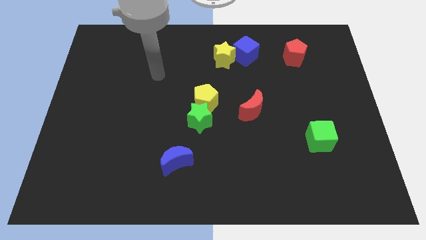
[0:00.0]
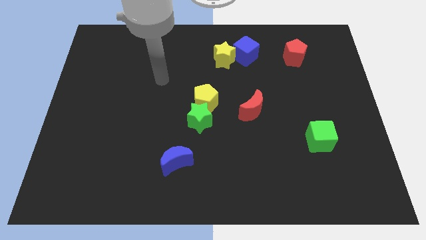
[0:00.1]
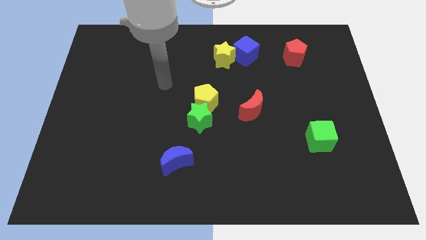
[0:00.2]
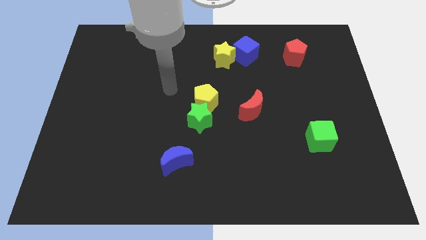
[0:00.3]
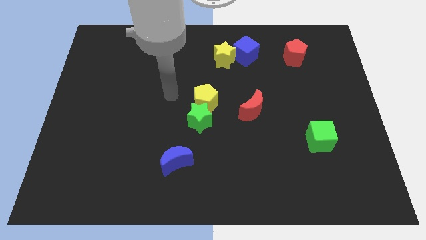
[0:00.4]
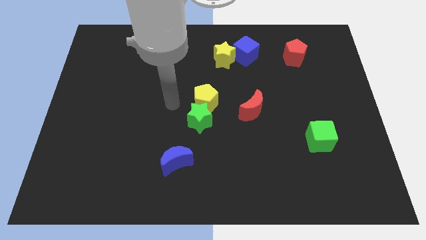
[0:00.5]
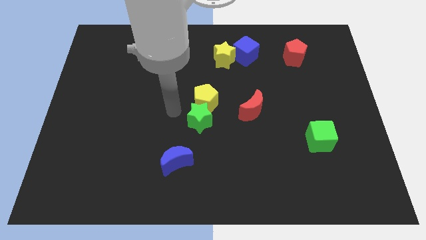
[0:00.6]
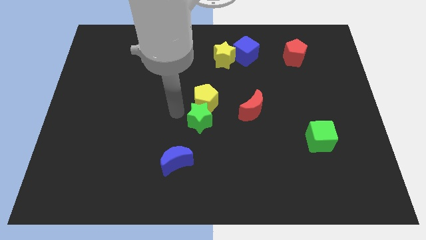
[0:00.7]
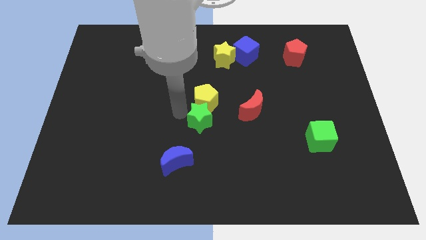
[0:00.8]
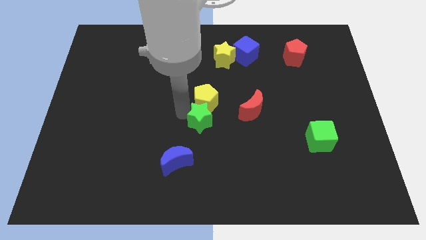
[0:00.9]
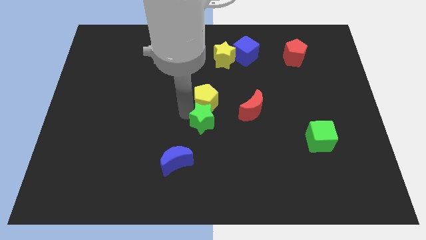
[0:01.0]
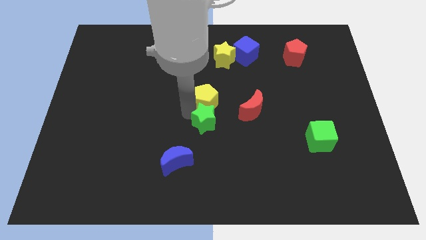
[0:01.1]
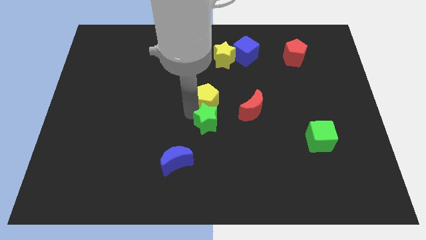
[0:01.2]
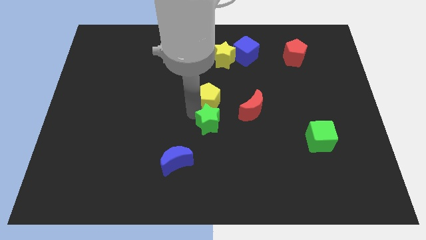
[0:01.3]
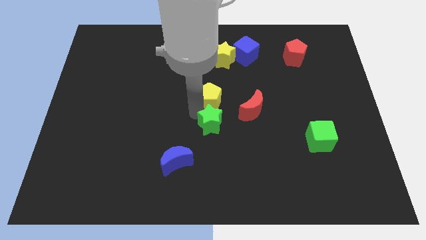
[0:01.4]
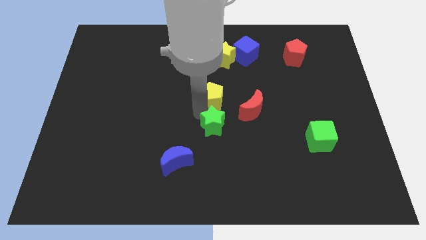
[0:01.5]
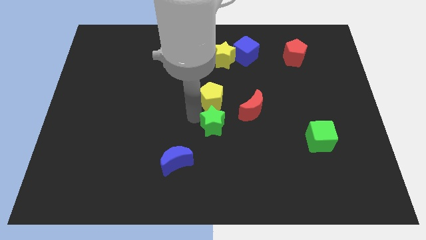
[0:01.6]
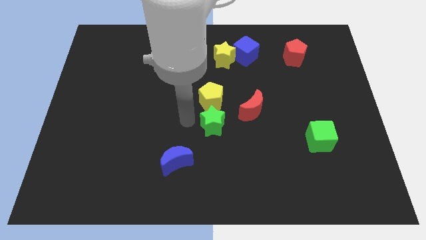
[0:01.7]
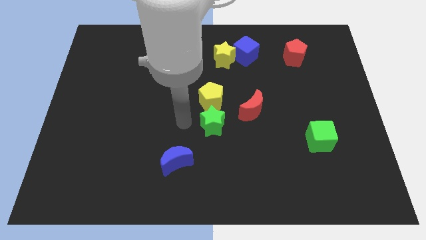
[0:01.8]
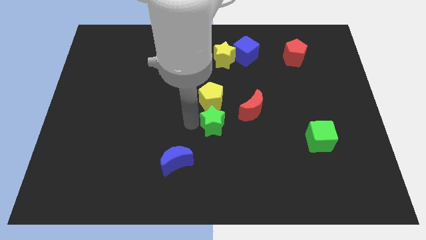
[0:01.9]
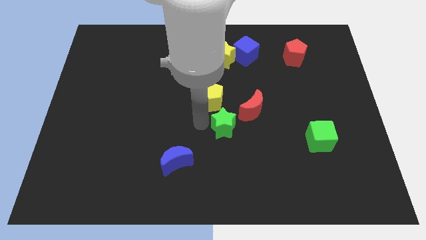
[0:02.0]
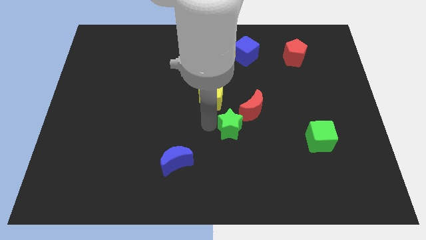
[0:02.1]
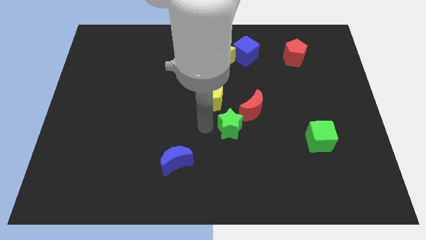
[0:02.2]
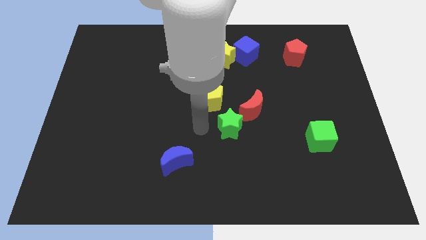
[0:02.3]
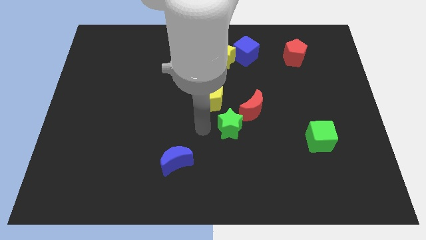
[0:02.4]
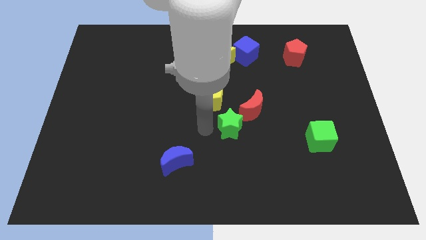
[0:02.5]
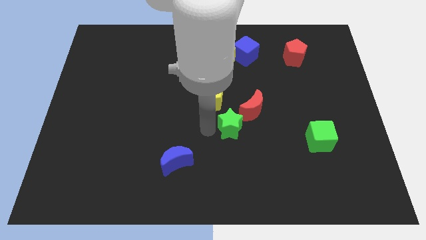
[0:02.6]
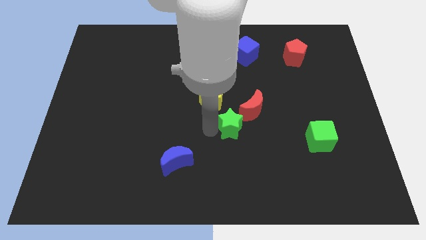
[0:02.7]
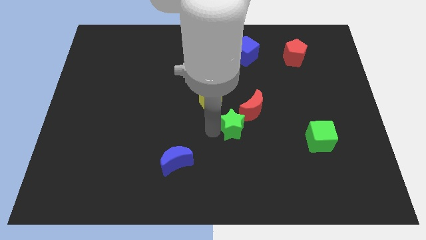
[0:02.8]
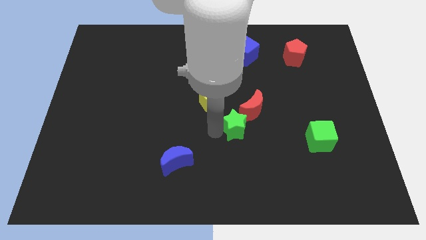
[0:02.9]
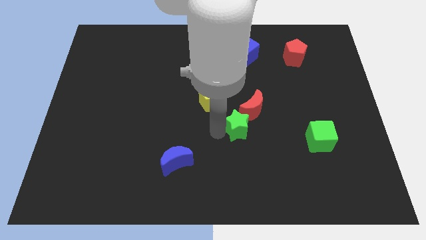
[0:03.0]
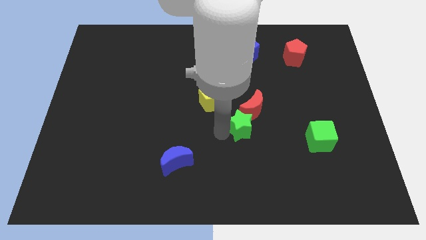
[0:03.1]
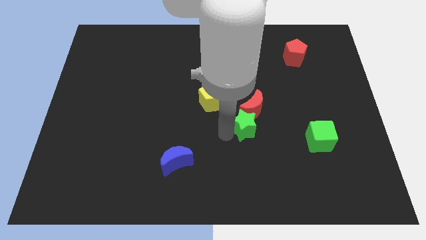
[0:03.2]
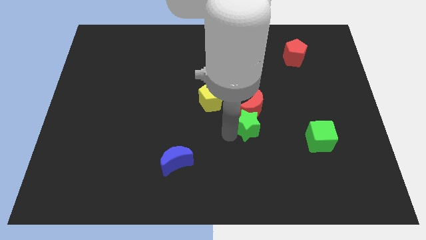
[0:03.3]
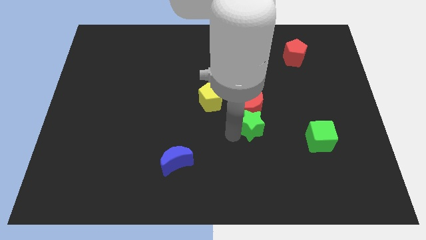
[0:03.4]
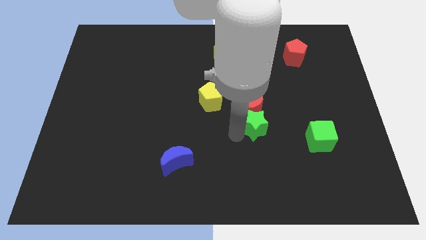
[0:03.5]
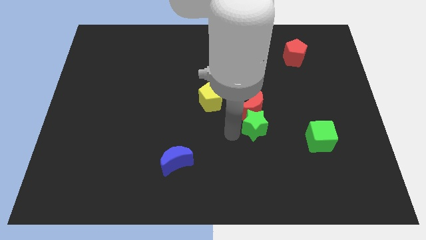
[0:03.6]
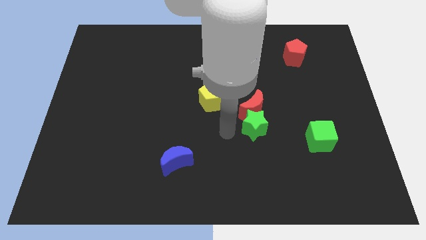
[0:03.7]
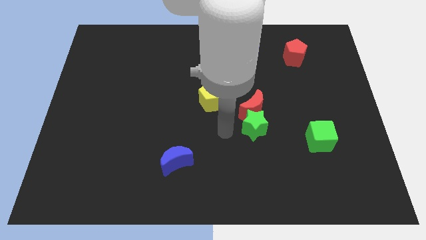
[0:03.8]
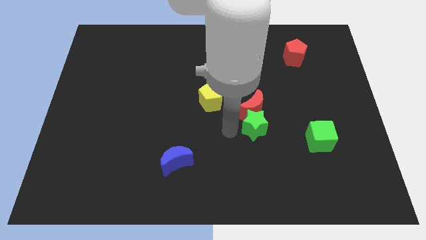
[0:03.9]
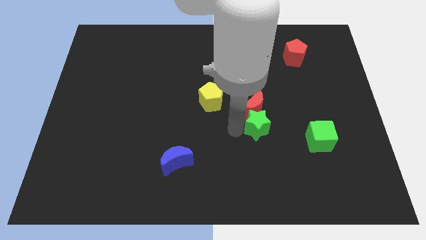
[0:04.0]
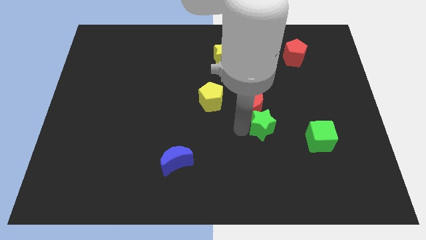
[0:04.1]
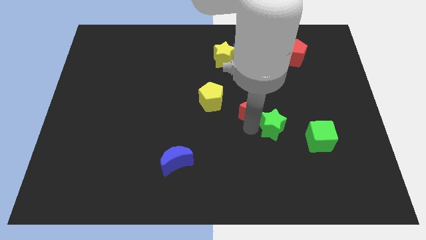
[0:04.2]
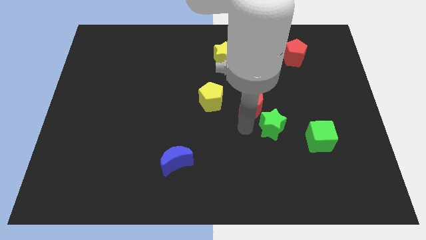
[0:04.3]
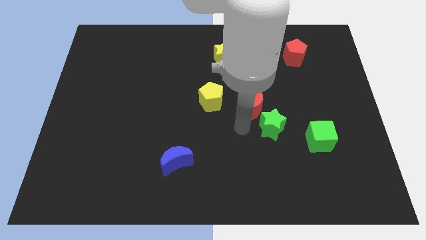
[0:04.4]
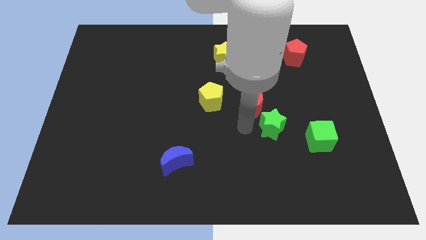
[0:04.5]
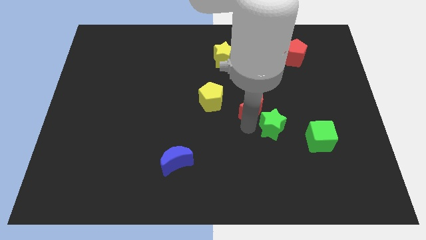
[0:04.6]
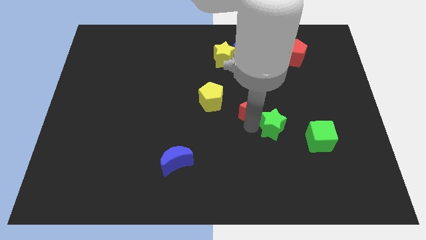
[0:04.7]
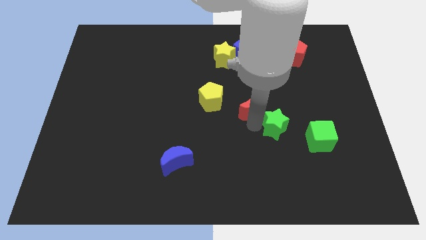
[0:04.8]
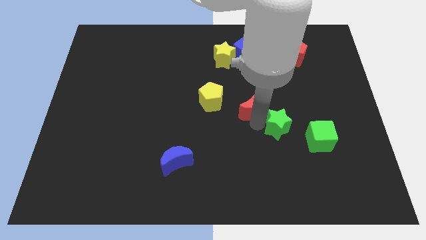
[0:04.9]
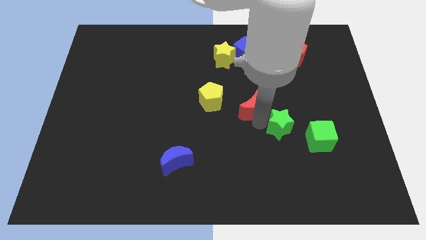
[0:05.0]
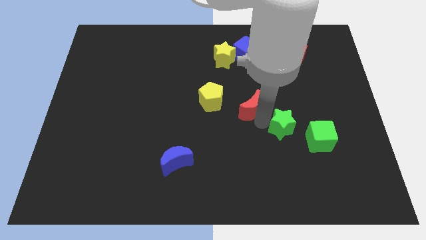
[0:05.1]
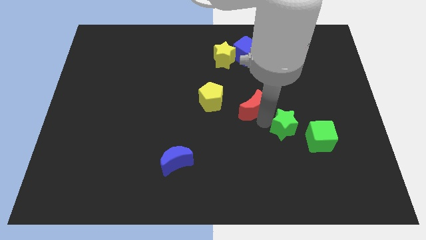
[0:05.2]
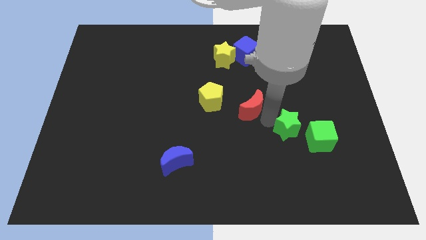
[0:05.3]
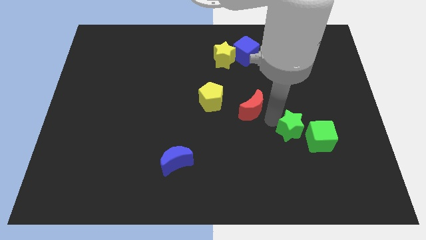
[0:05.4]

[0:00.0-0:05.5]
push the green star to the right

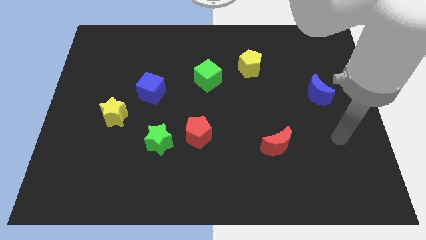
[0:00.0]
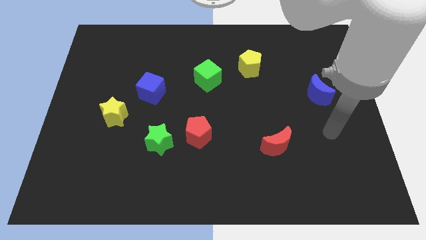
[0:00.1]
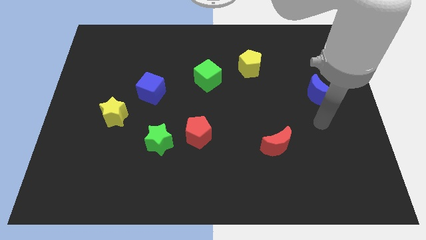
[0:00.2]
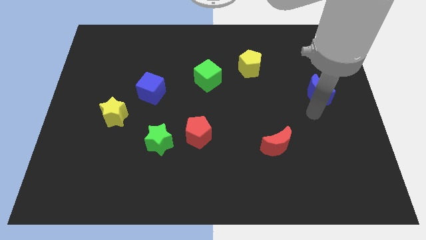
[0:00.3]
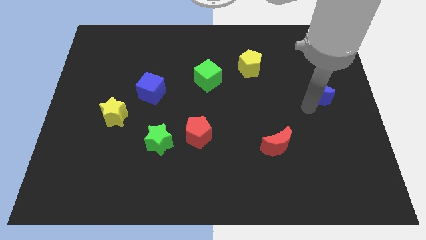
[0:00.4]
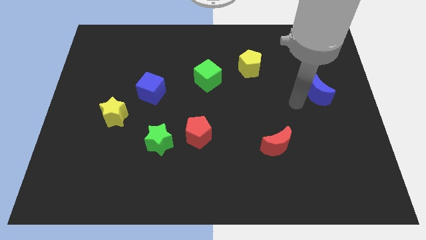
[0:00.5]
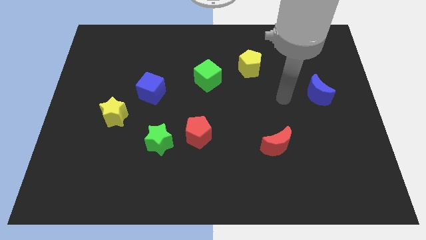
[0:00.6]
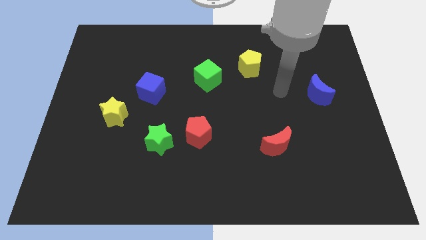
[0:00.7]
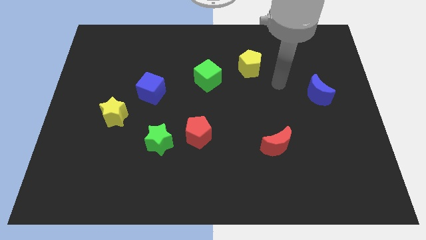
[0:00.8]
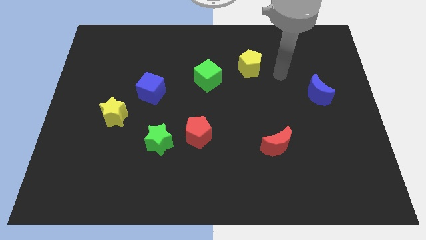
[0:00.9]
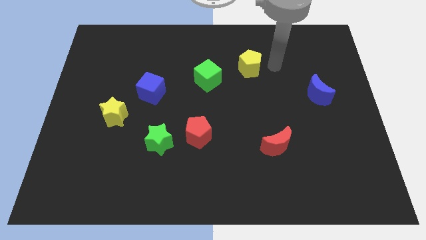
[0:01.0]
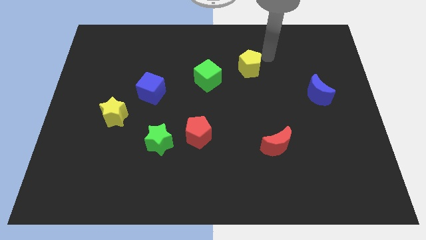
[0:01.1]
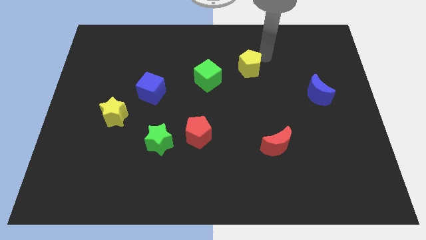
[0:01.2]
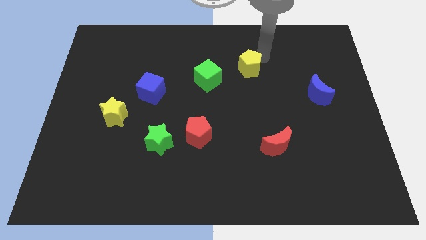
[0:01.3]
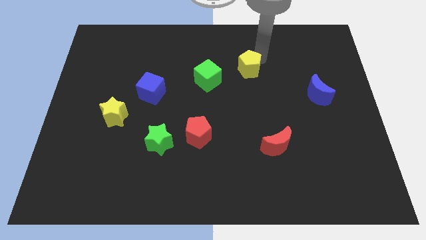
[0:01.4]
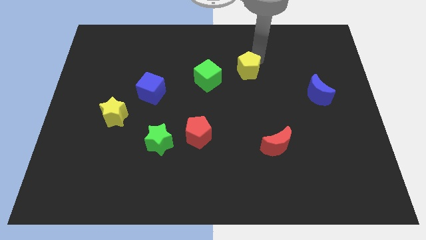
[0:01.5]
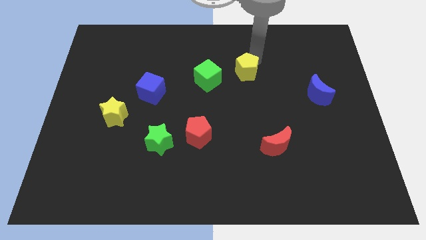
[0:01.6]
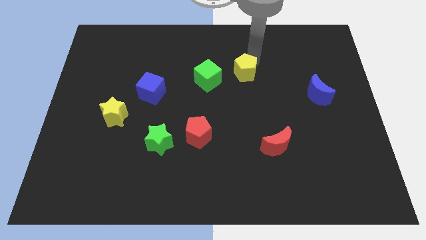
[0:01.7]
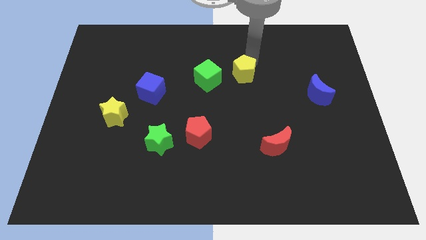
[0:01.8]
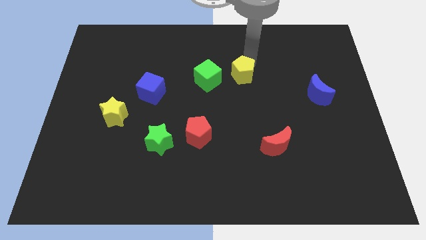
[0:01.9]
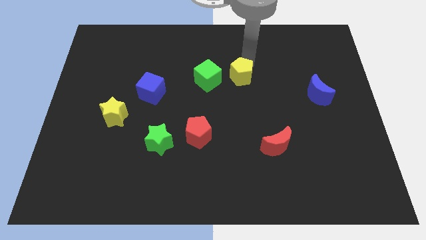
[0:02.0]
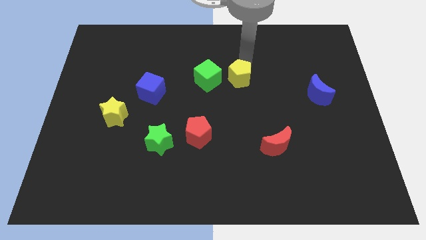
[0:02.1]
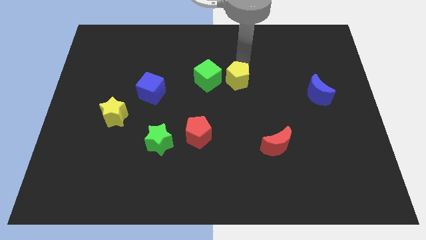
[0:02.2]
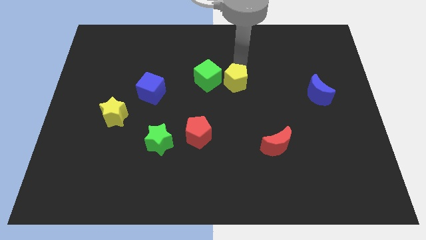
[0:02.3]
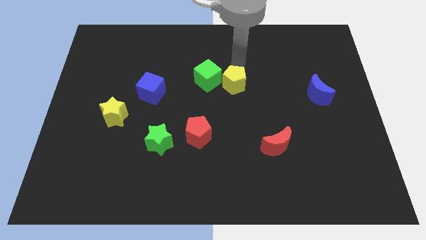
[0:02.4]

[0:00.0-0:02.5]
slightly slide the yellow pentagon downwards and left
